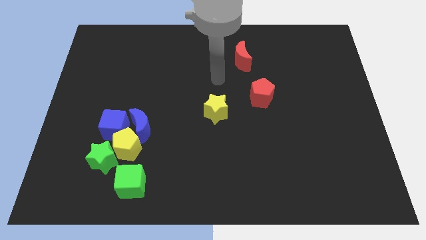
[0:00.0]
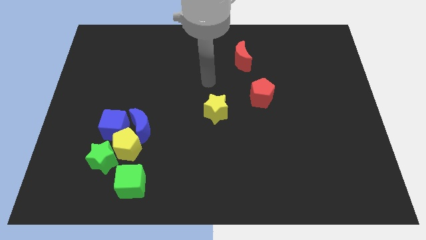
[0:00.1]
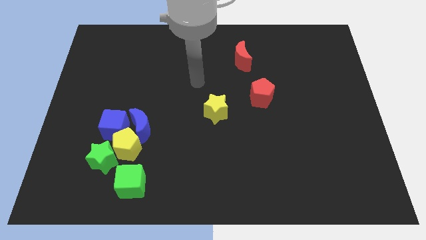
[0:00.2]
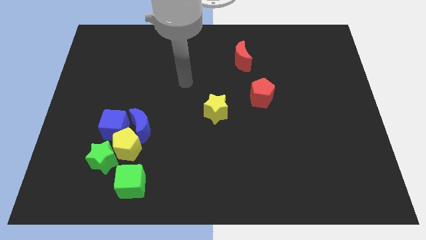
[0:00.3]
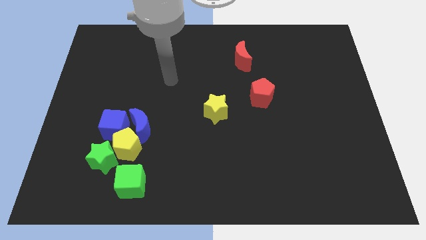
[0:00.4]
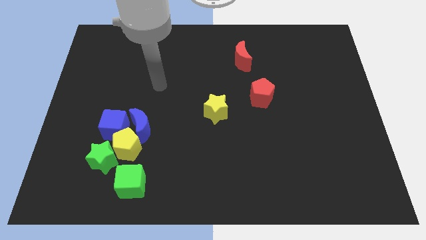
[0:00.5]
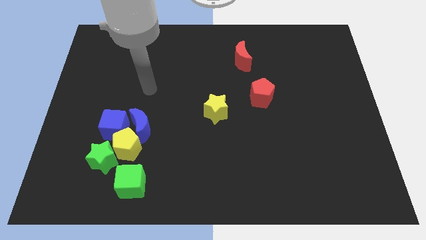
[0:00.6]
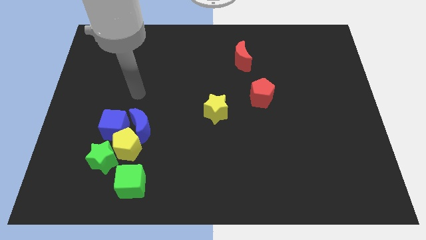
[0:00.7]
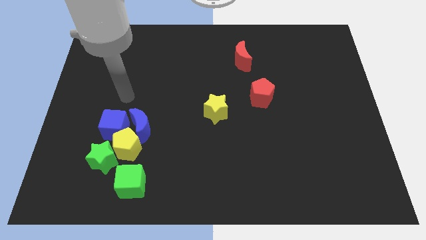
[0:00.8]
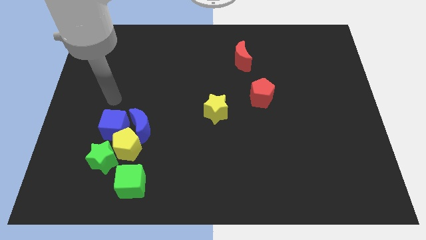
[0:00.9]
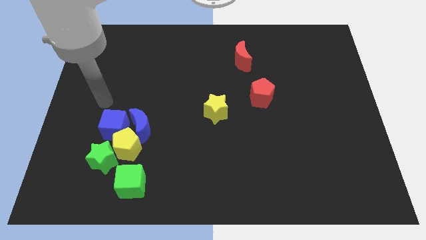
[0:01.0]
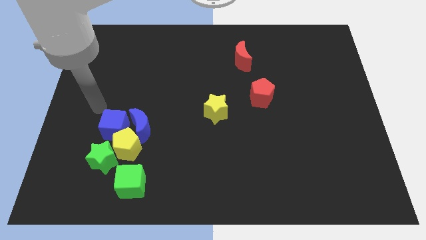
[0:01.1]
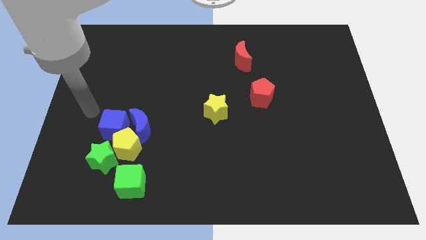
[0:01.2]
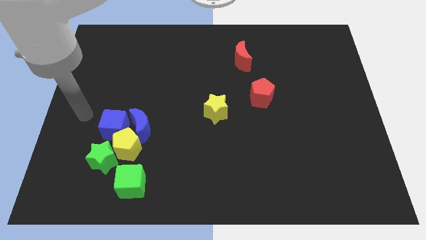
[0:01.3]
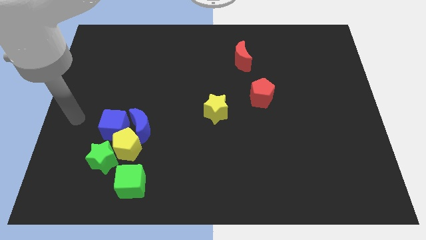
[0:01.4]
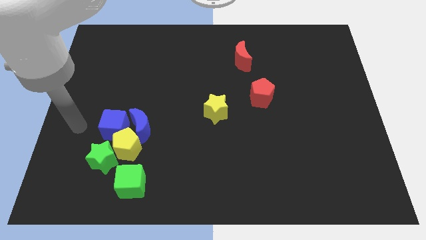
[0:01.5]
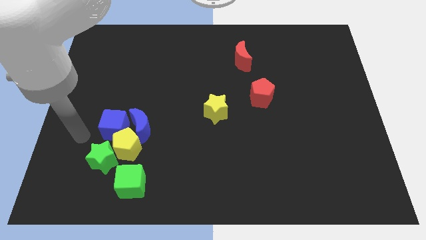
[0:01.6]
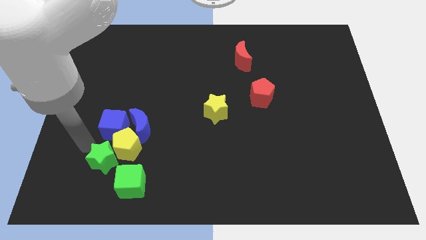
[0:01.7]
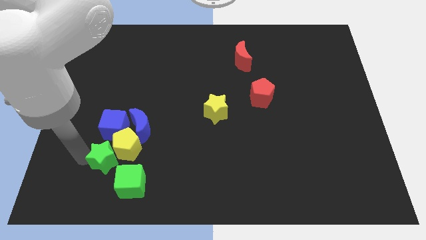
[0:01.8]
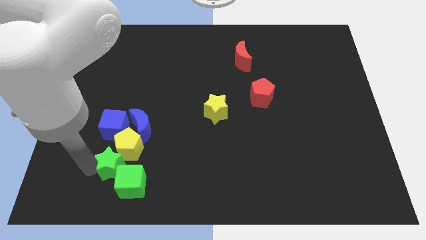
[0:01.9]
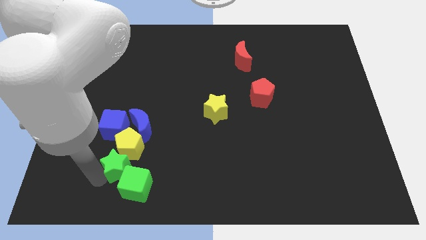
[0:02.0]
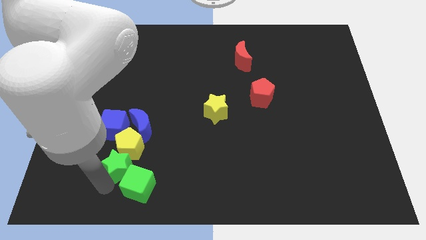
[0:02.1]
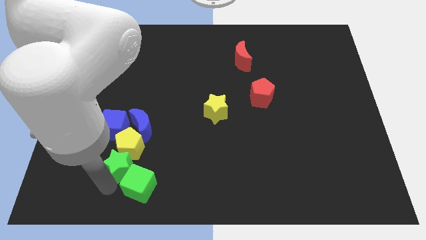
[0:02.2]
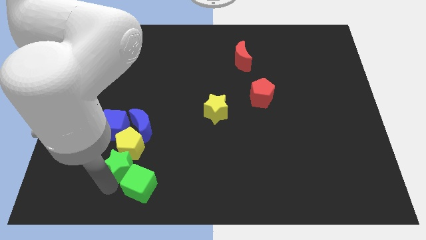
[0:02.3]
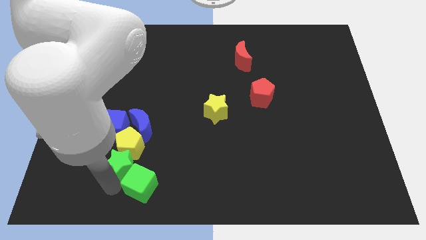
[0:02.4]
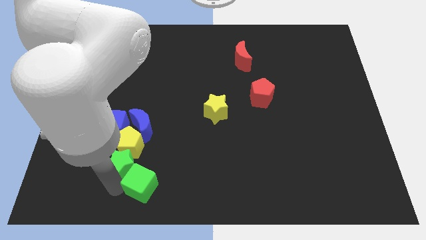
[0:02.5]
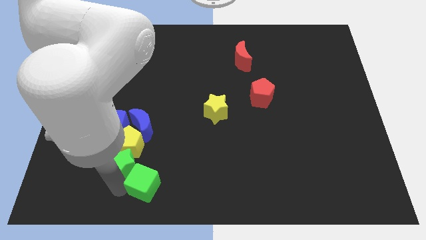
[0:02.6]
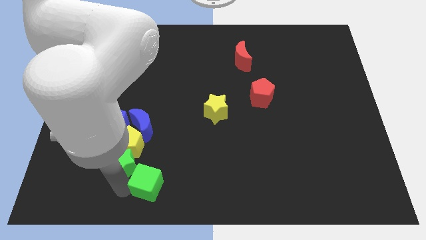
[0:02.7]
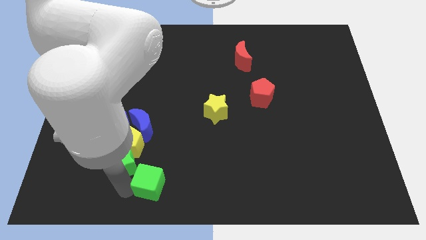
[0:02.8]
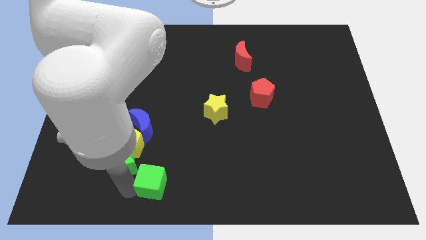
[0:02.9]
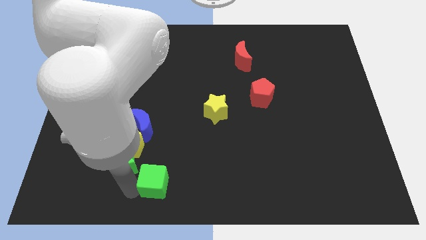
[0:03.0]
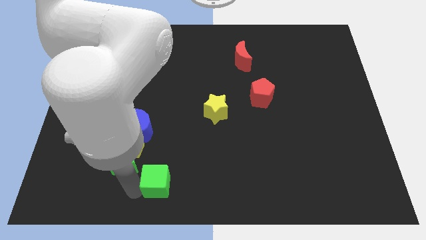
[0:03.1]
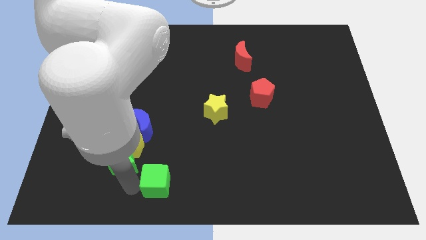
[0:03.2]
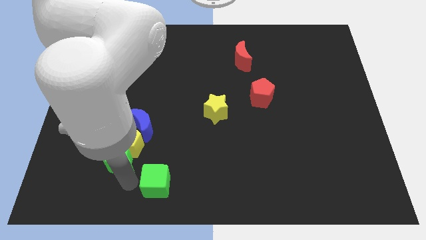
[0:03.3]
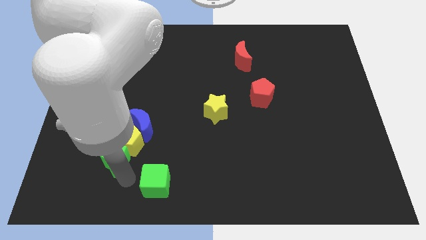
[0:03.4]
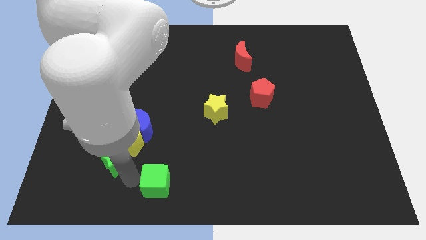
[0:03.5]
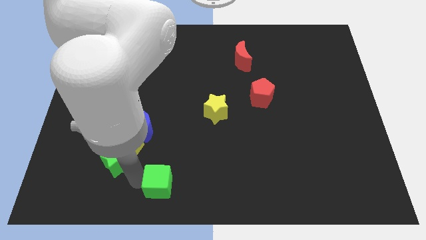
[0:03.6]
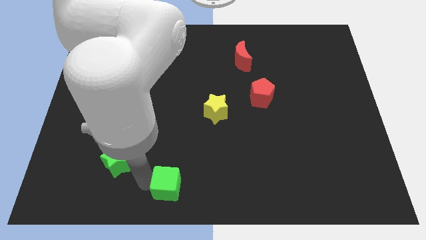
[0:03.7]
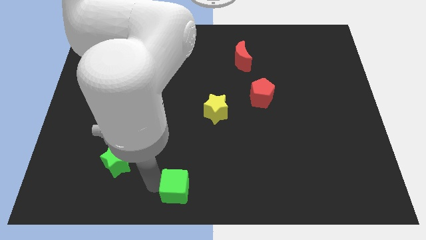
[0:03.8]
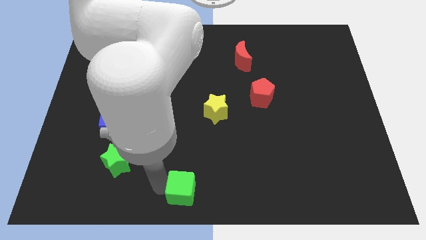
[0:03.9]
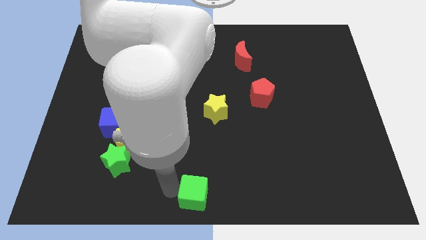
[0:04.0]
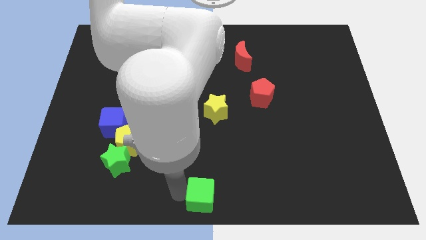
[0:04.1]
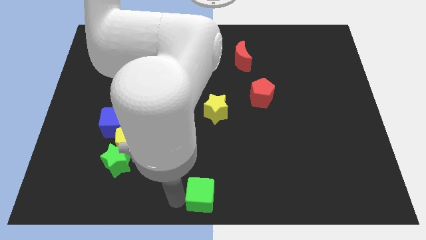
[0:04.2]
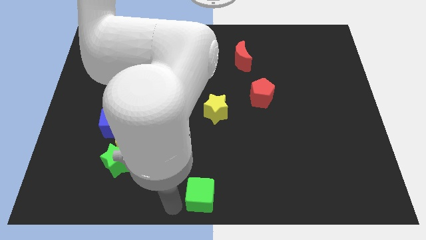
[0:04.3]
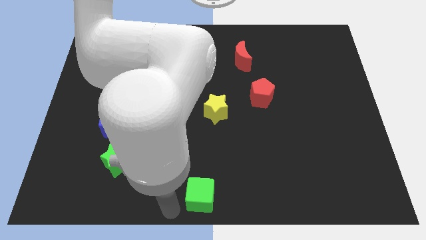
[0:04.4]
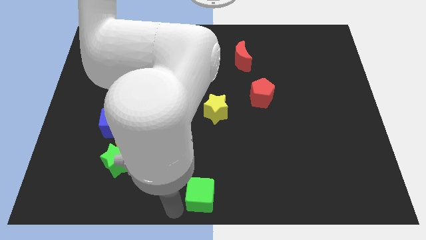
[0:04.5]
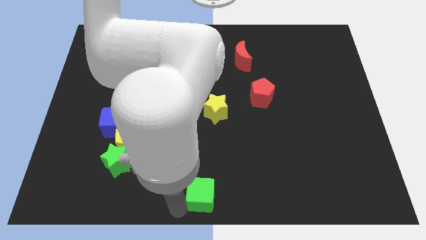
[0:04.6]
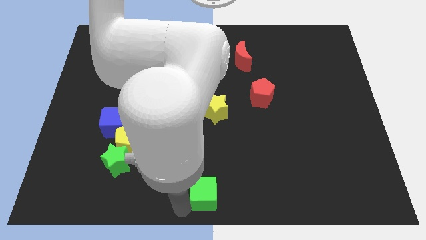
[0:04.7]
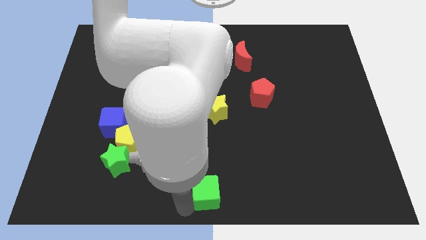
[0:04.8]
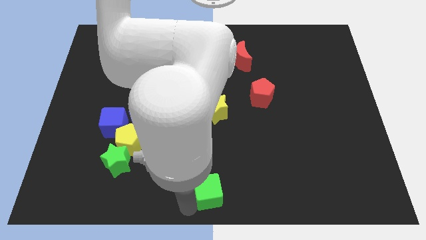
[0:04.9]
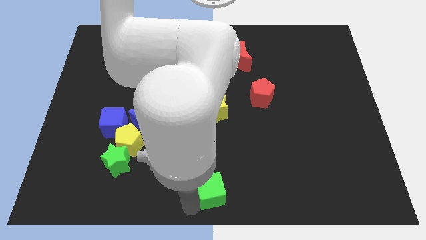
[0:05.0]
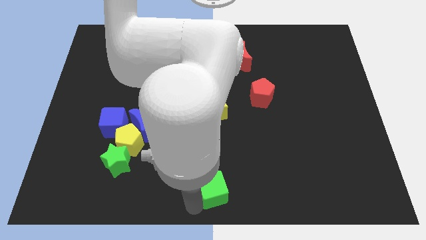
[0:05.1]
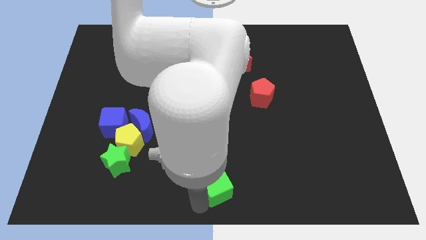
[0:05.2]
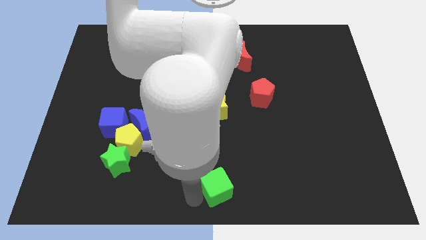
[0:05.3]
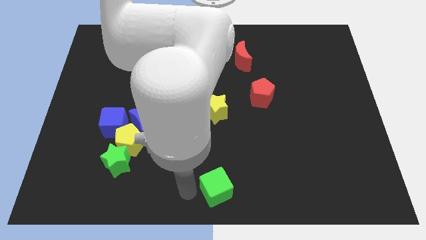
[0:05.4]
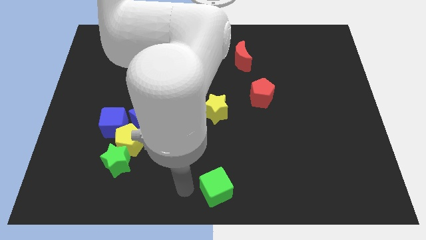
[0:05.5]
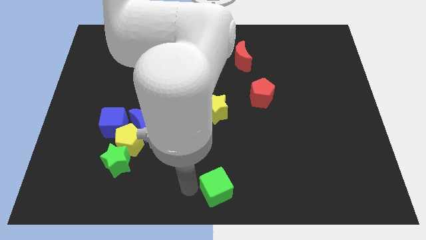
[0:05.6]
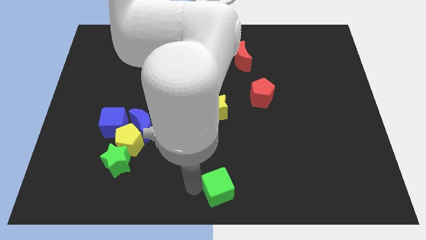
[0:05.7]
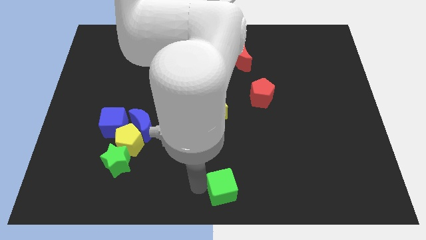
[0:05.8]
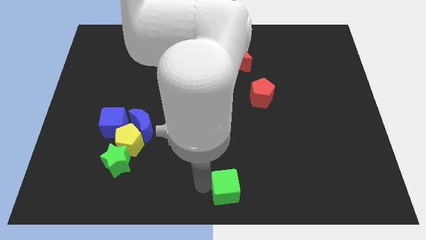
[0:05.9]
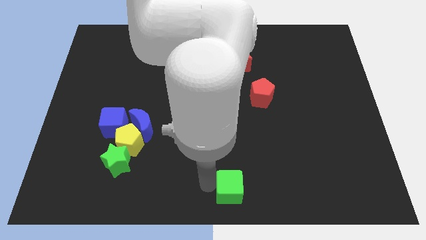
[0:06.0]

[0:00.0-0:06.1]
move the green cube to the right

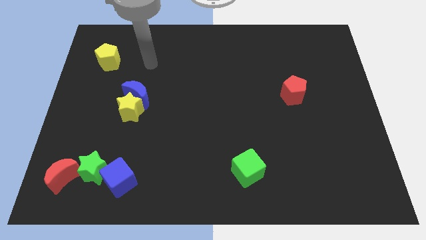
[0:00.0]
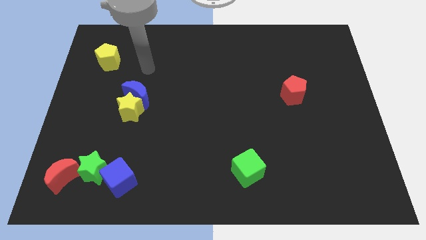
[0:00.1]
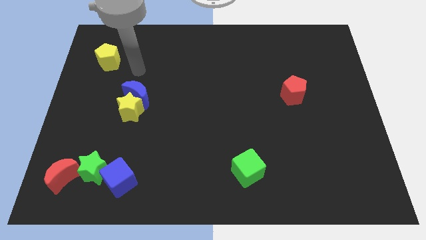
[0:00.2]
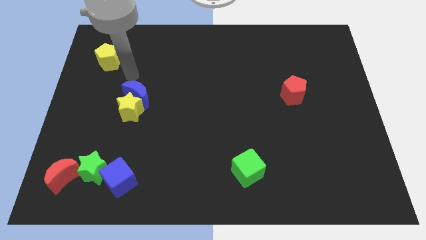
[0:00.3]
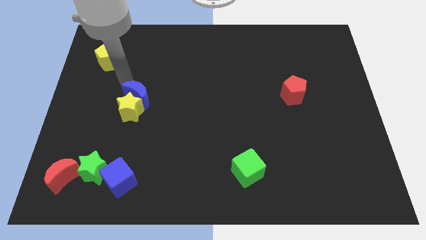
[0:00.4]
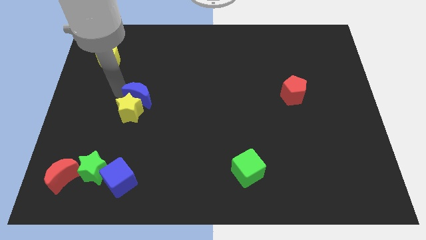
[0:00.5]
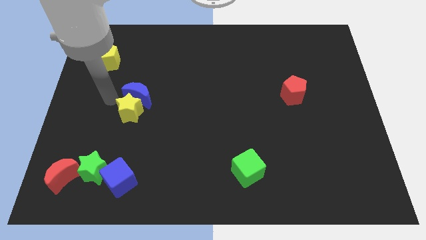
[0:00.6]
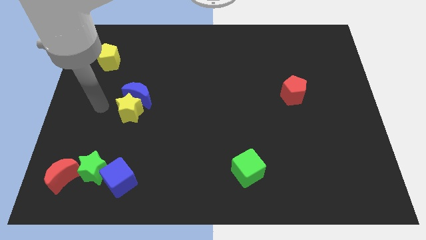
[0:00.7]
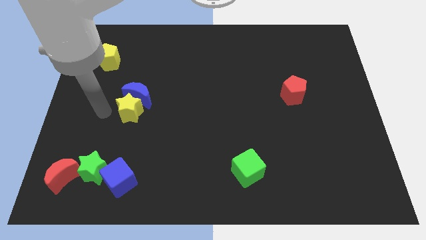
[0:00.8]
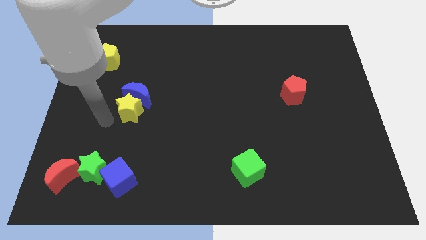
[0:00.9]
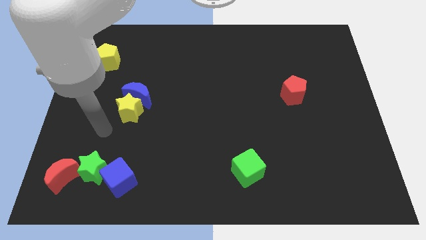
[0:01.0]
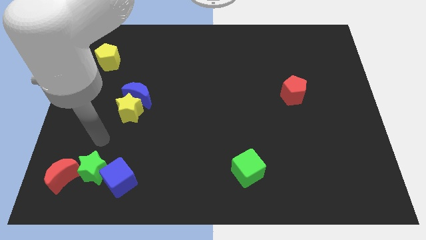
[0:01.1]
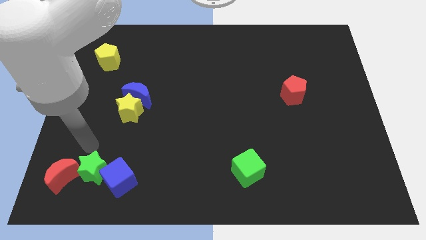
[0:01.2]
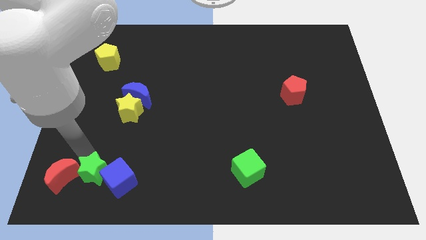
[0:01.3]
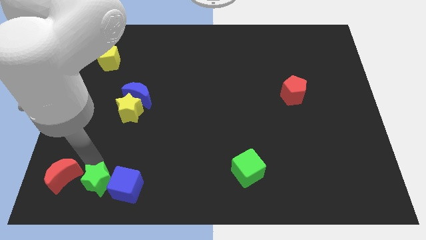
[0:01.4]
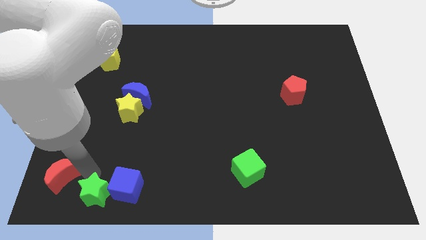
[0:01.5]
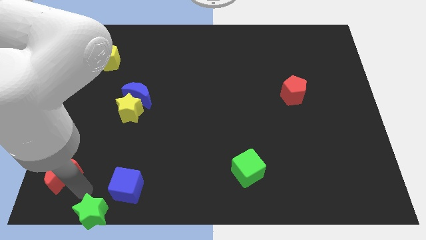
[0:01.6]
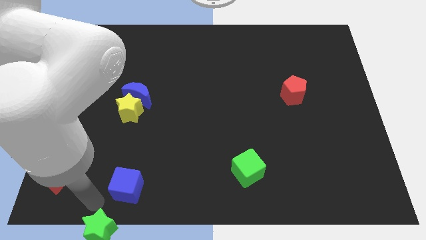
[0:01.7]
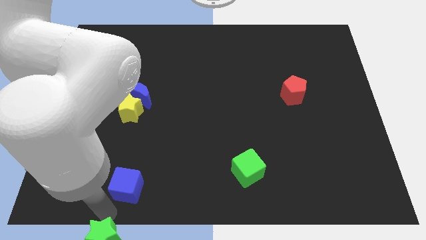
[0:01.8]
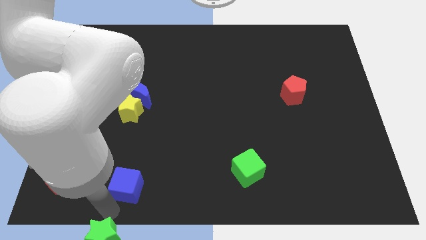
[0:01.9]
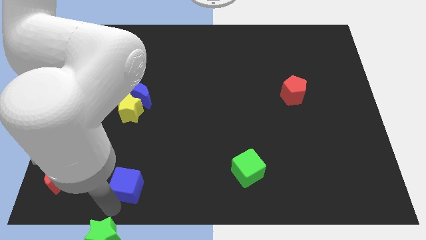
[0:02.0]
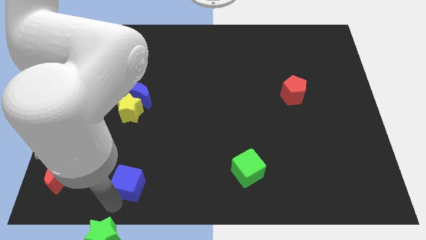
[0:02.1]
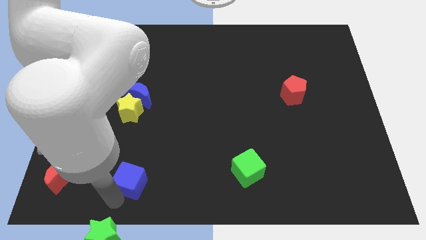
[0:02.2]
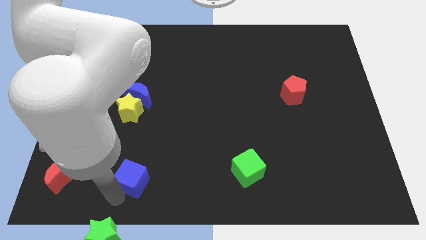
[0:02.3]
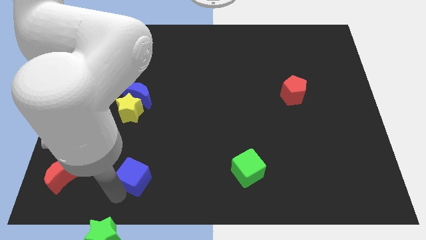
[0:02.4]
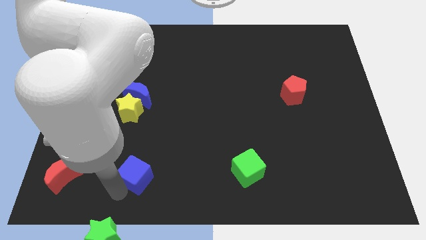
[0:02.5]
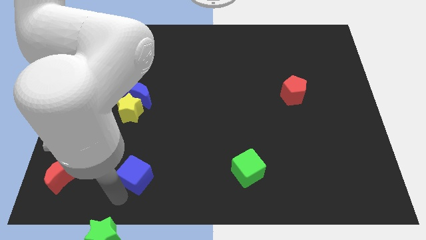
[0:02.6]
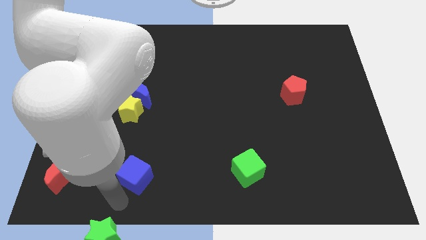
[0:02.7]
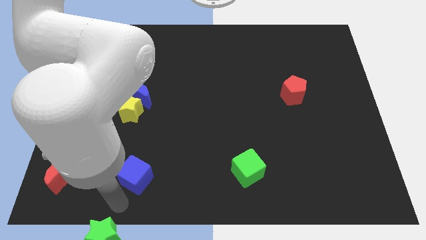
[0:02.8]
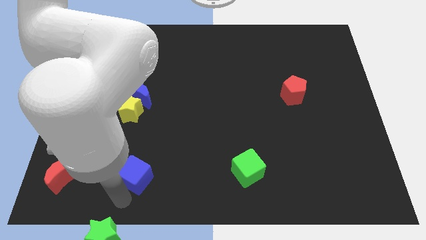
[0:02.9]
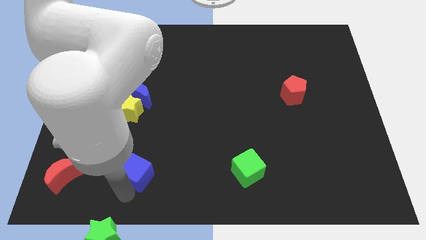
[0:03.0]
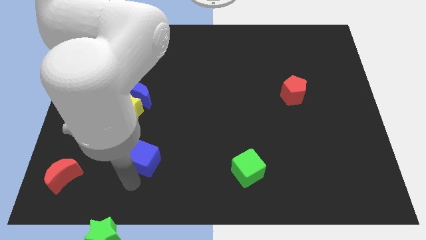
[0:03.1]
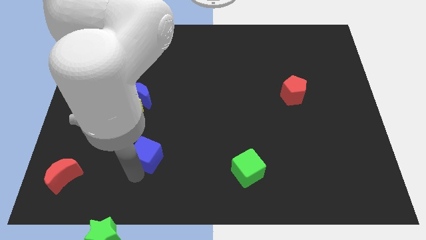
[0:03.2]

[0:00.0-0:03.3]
slightly push the blue cube upwards and right
